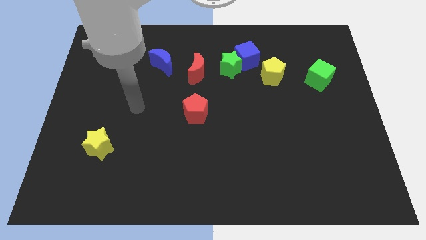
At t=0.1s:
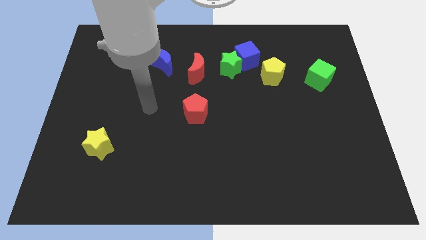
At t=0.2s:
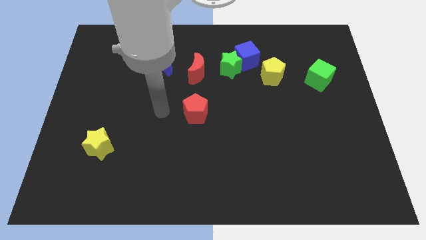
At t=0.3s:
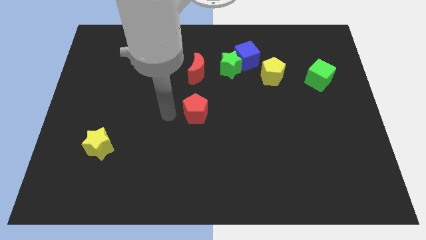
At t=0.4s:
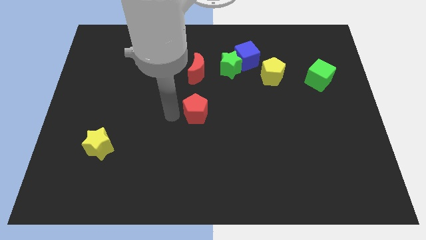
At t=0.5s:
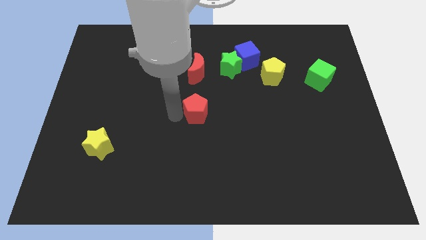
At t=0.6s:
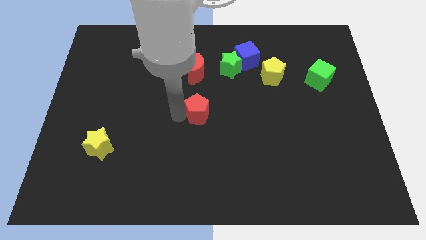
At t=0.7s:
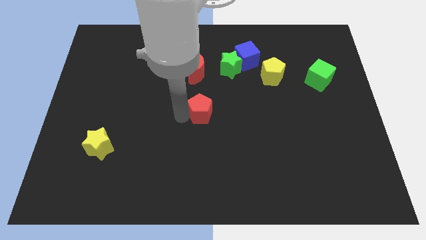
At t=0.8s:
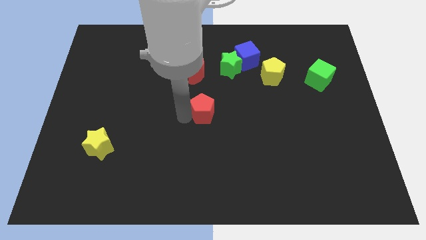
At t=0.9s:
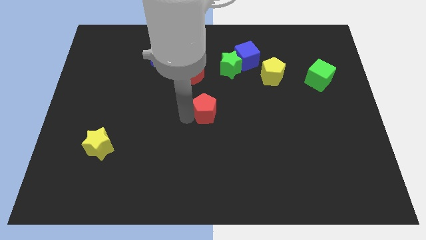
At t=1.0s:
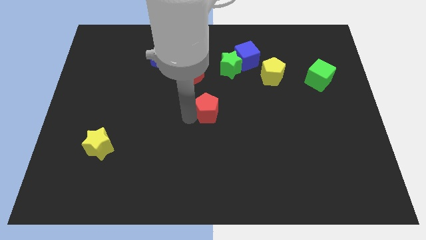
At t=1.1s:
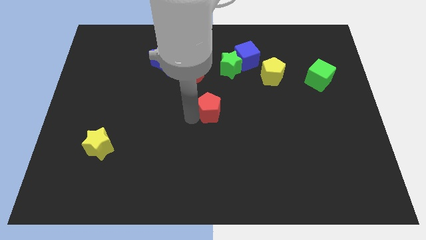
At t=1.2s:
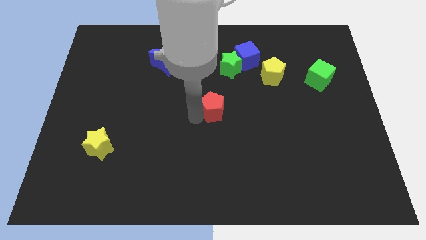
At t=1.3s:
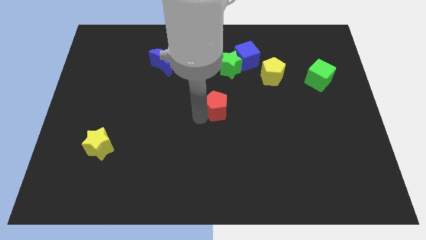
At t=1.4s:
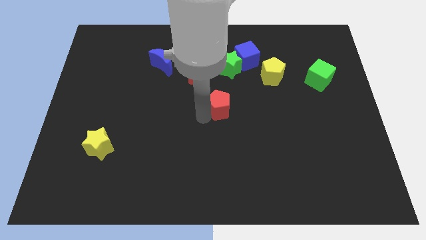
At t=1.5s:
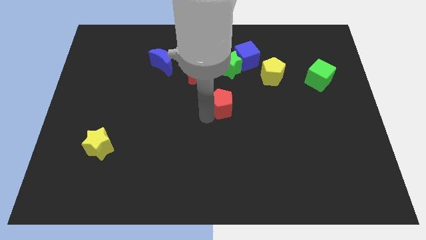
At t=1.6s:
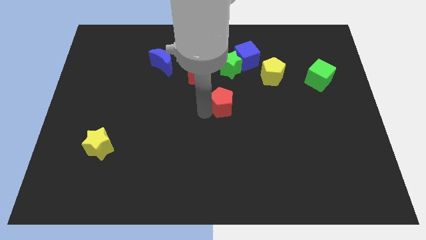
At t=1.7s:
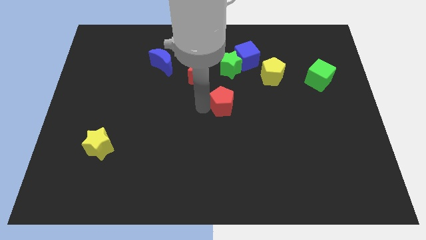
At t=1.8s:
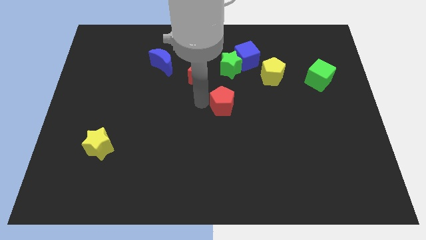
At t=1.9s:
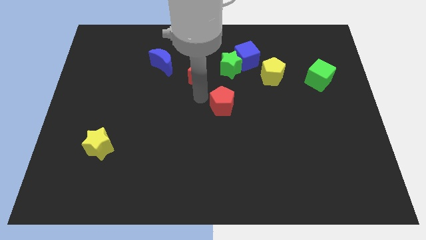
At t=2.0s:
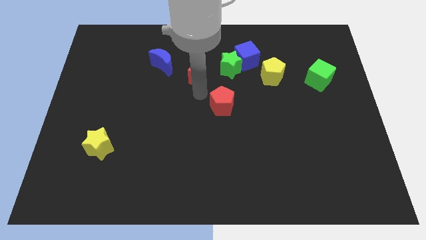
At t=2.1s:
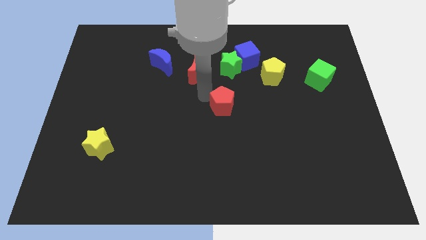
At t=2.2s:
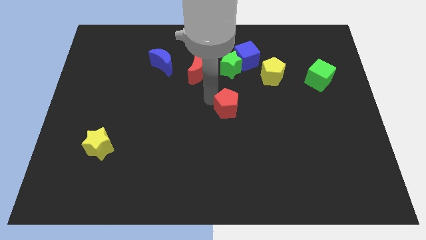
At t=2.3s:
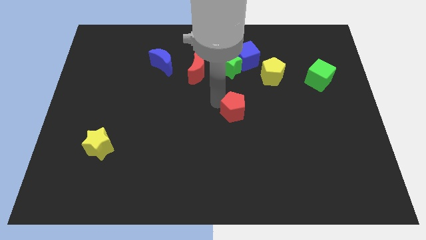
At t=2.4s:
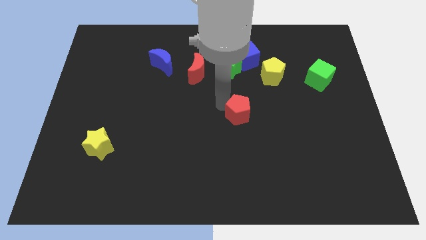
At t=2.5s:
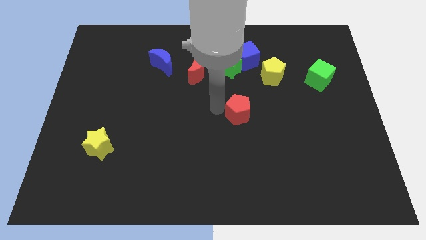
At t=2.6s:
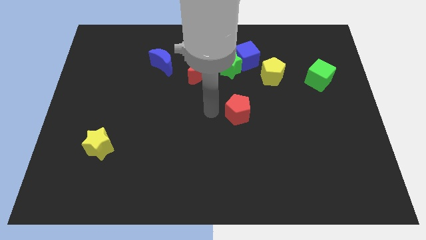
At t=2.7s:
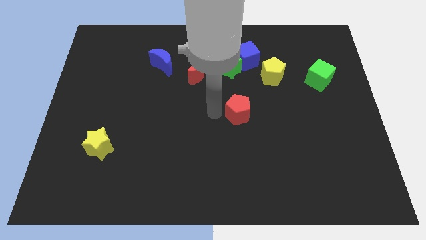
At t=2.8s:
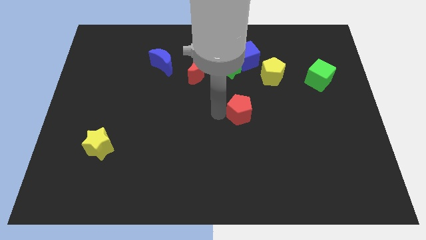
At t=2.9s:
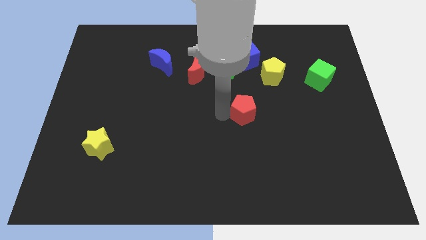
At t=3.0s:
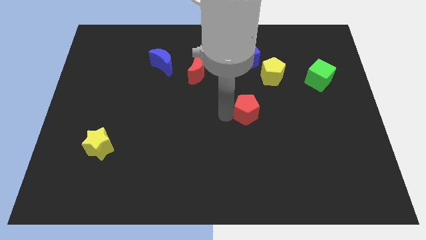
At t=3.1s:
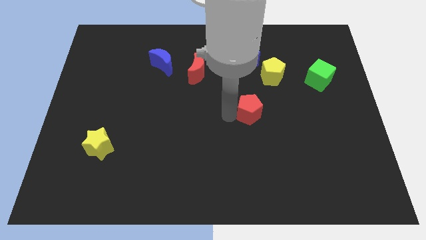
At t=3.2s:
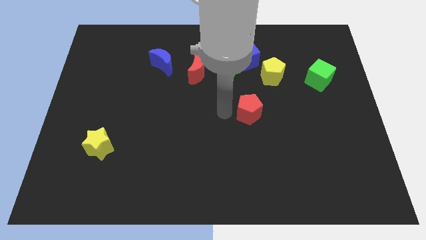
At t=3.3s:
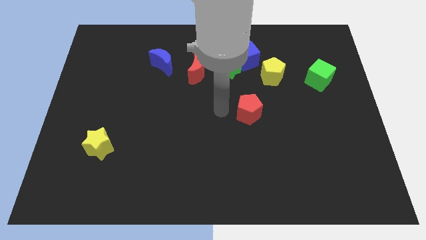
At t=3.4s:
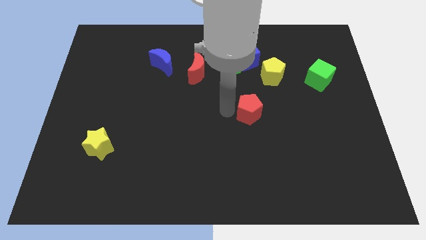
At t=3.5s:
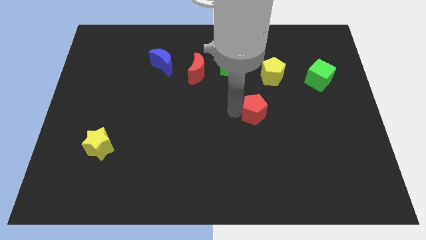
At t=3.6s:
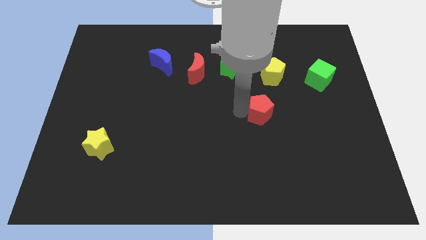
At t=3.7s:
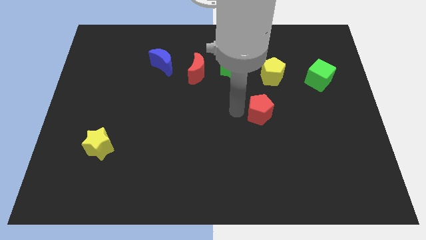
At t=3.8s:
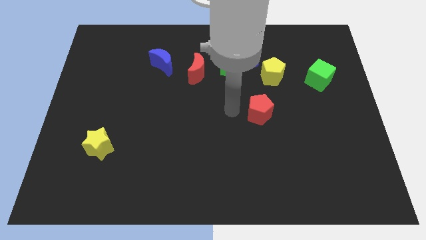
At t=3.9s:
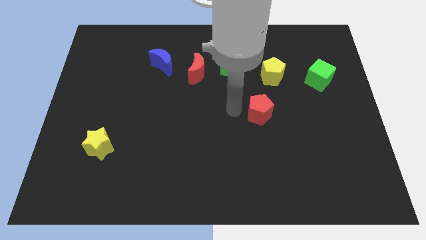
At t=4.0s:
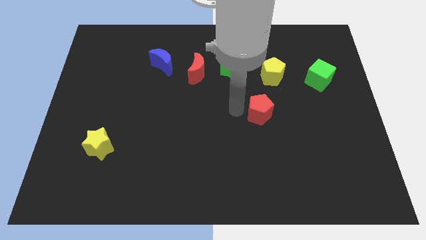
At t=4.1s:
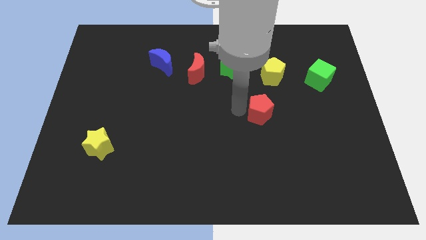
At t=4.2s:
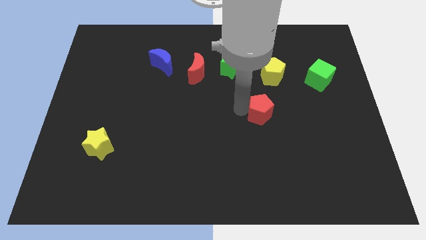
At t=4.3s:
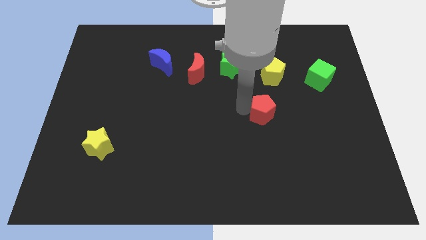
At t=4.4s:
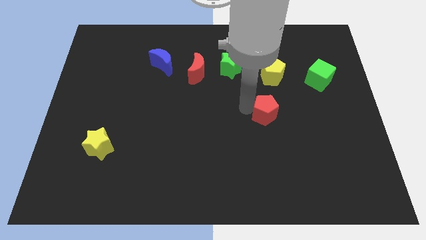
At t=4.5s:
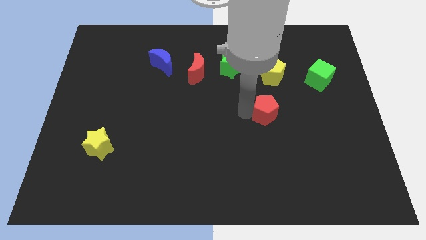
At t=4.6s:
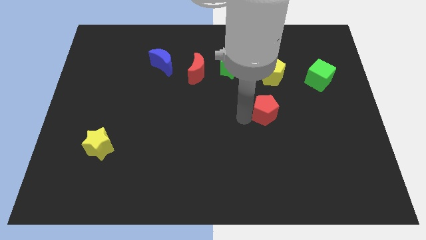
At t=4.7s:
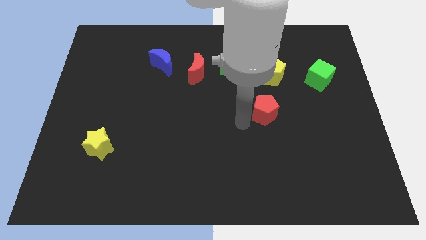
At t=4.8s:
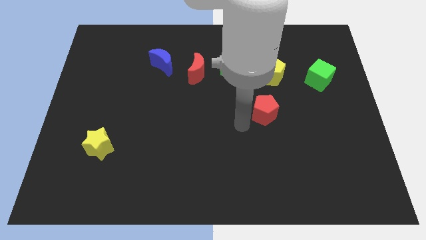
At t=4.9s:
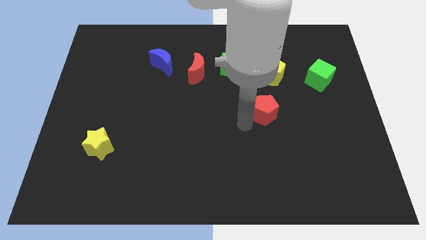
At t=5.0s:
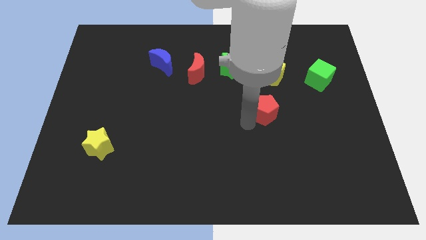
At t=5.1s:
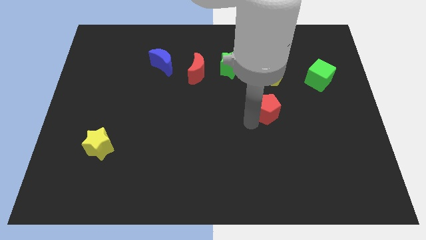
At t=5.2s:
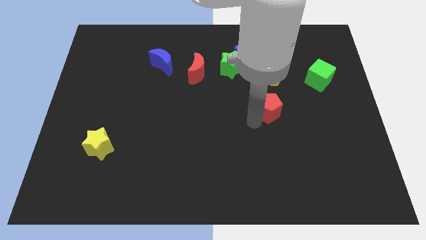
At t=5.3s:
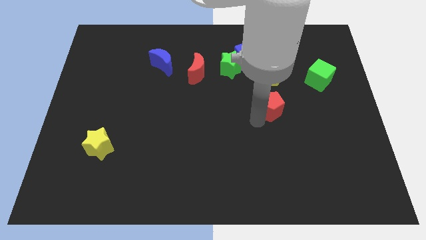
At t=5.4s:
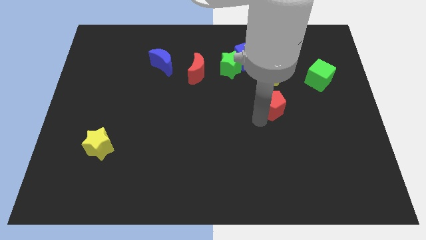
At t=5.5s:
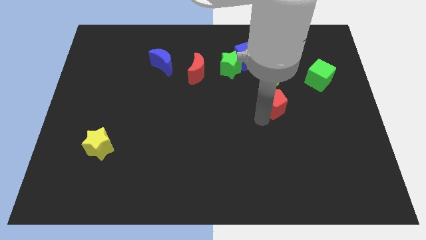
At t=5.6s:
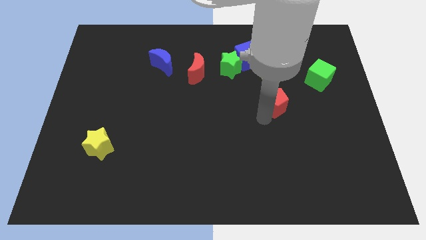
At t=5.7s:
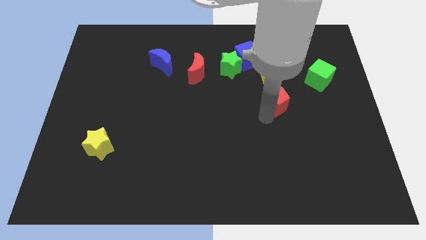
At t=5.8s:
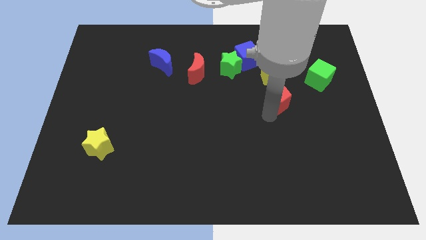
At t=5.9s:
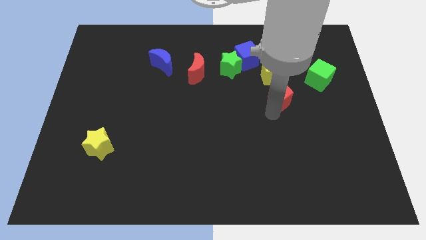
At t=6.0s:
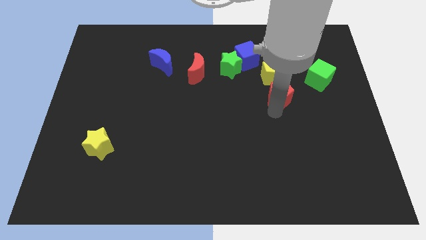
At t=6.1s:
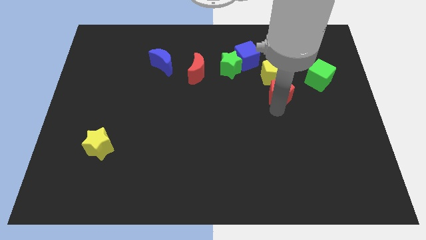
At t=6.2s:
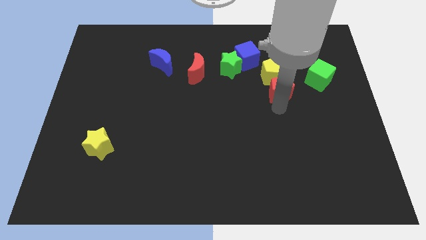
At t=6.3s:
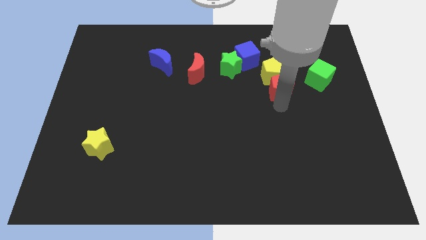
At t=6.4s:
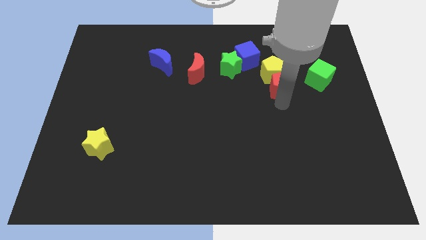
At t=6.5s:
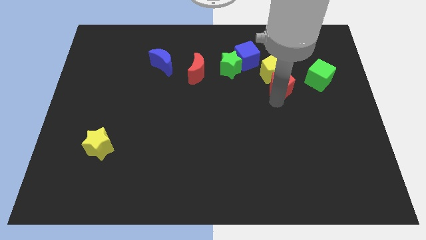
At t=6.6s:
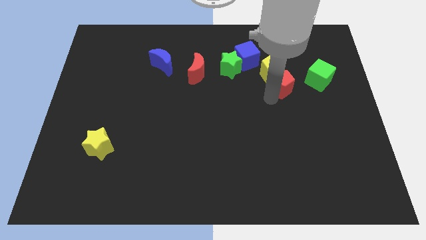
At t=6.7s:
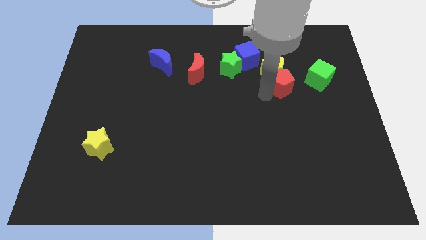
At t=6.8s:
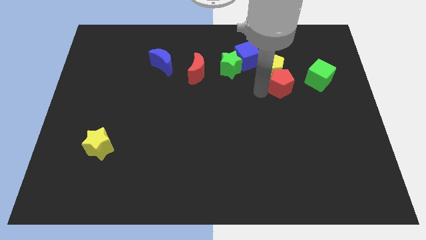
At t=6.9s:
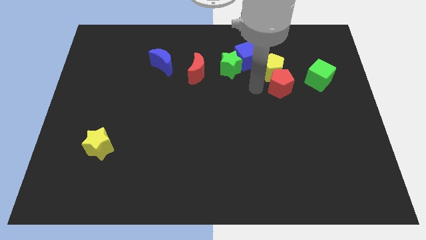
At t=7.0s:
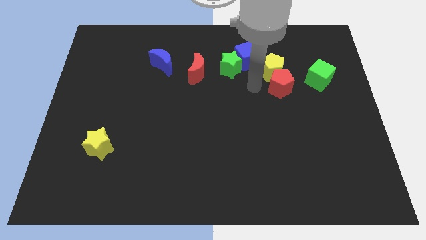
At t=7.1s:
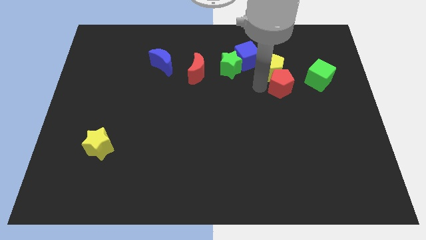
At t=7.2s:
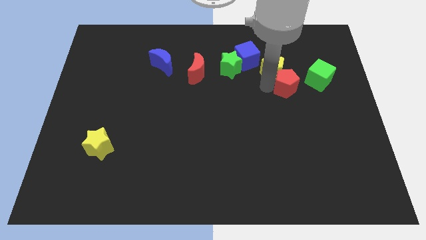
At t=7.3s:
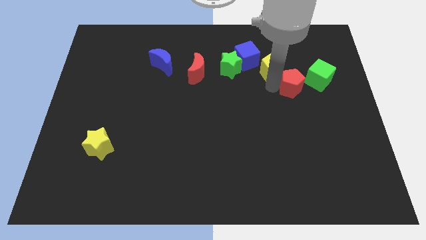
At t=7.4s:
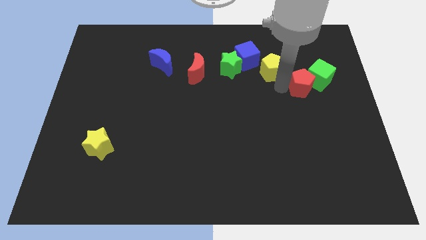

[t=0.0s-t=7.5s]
push the red pentagon to the green cube

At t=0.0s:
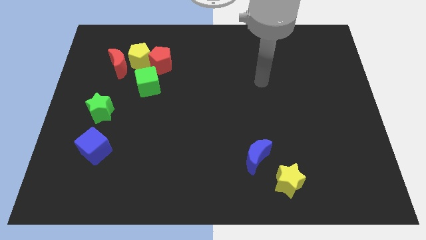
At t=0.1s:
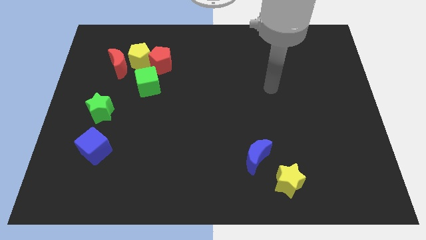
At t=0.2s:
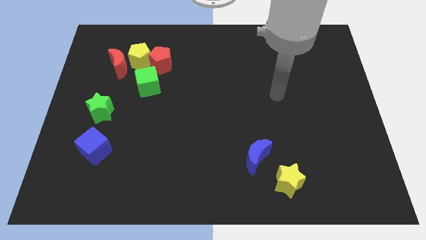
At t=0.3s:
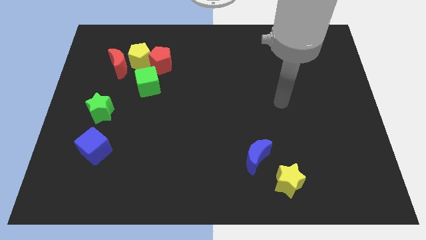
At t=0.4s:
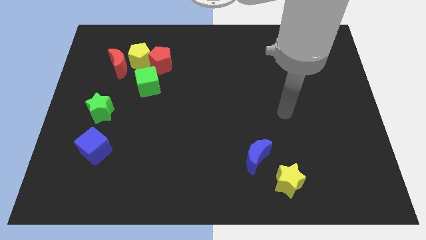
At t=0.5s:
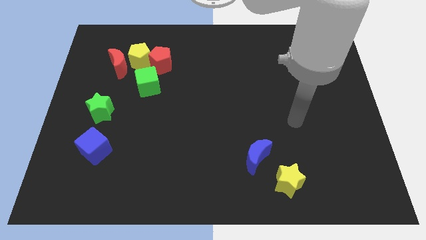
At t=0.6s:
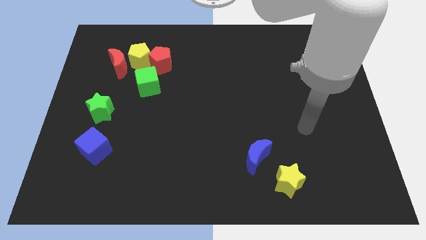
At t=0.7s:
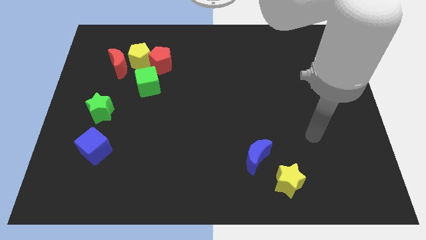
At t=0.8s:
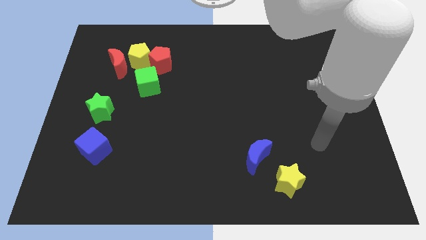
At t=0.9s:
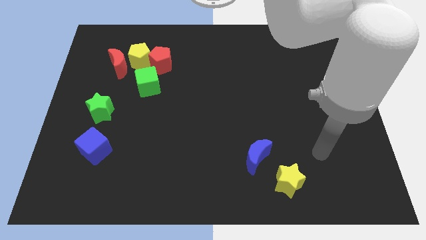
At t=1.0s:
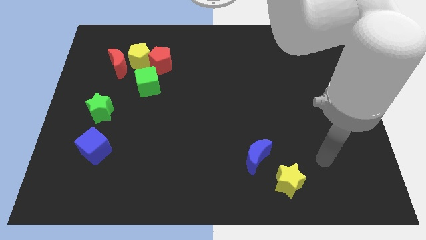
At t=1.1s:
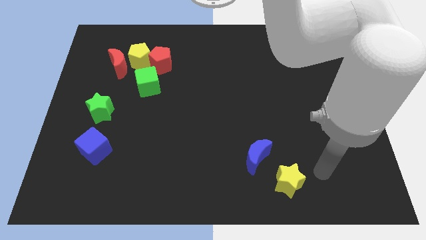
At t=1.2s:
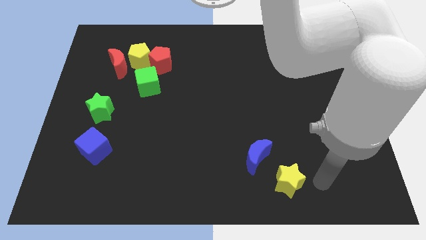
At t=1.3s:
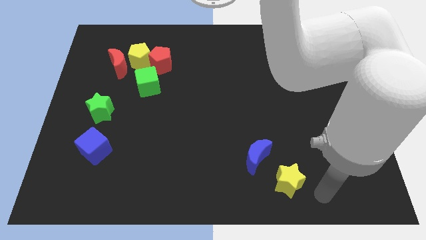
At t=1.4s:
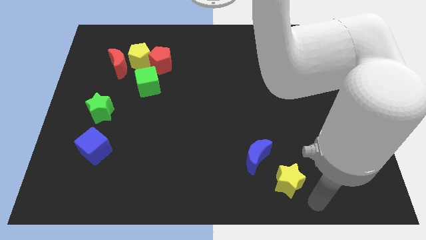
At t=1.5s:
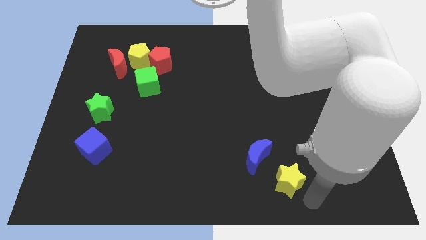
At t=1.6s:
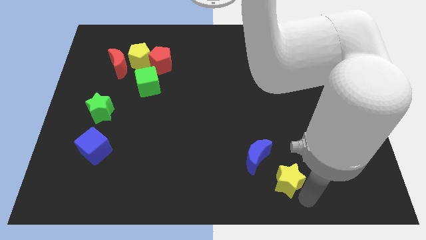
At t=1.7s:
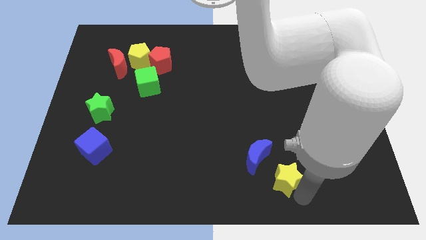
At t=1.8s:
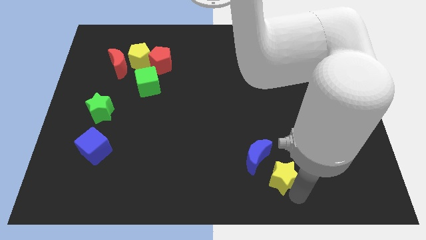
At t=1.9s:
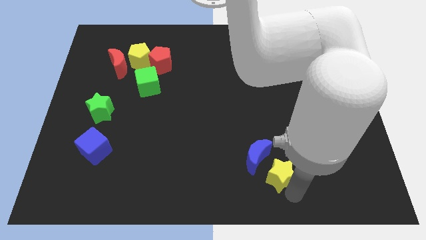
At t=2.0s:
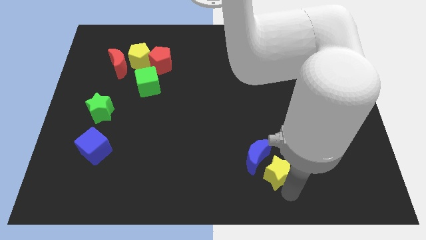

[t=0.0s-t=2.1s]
slide the yellow star towards the blue moon
